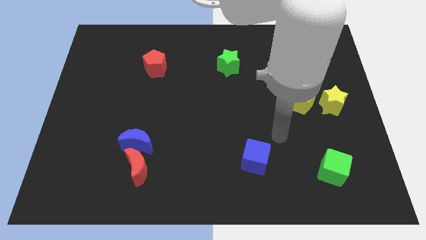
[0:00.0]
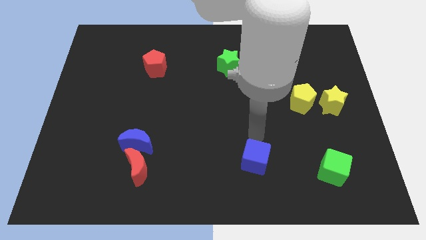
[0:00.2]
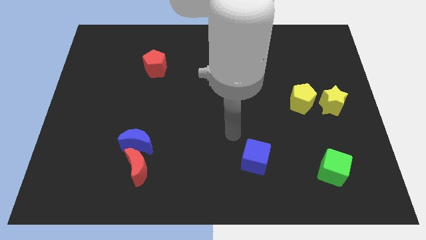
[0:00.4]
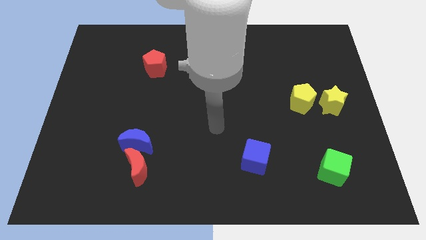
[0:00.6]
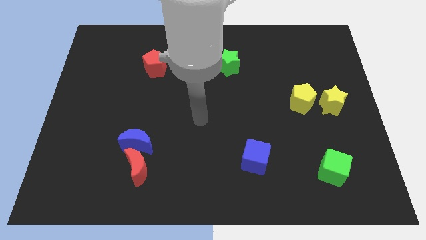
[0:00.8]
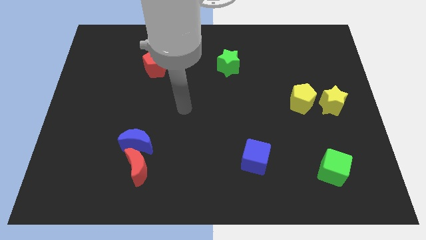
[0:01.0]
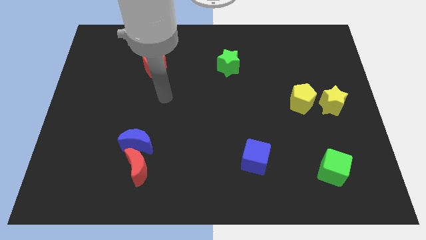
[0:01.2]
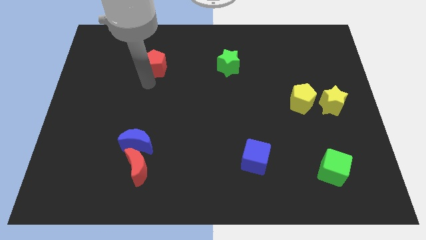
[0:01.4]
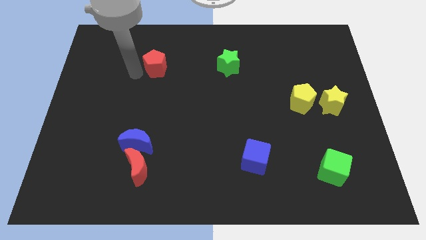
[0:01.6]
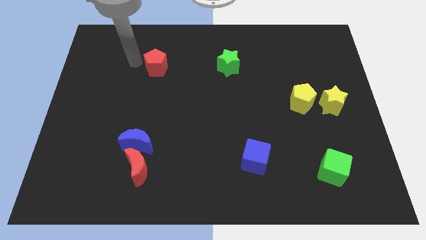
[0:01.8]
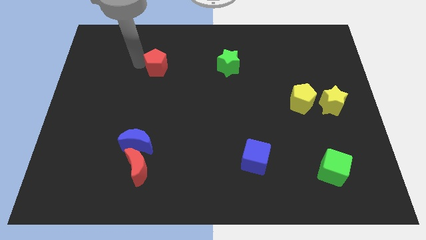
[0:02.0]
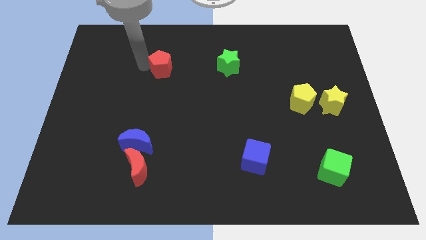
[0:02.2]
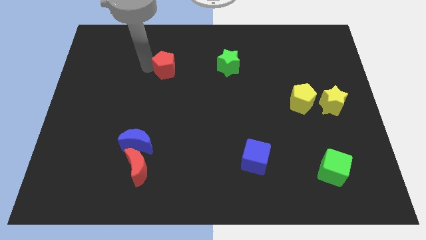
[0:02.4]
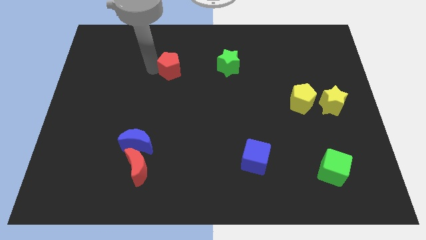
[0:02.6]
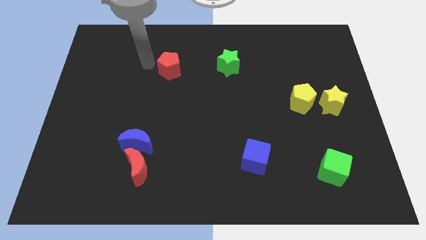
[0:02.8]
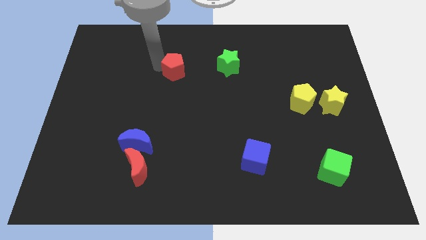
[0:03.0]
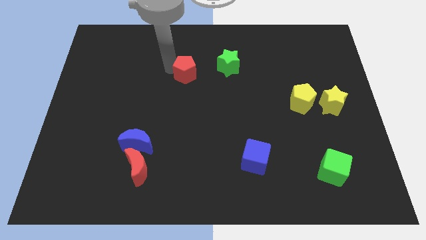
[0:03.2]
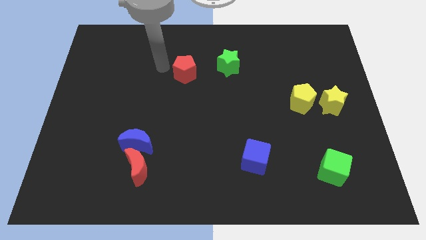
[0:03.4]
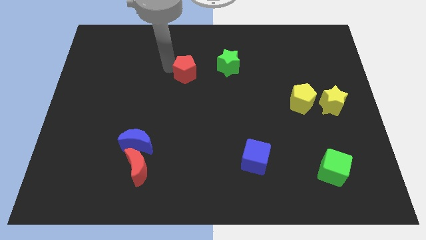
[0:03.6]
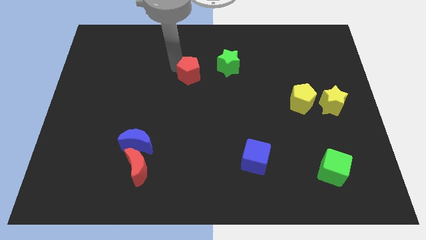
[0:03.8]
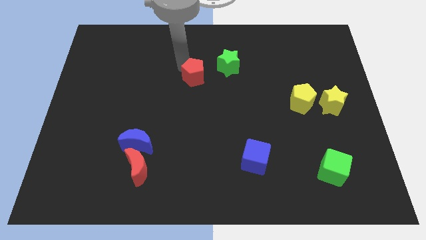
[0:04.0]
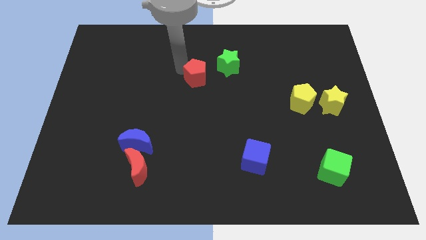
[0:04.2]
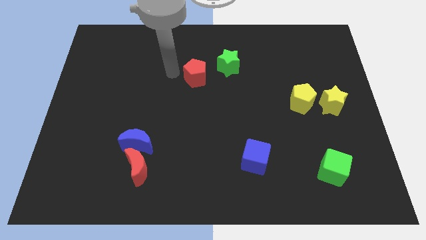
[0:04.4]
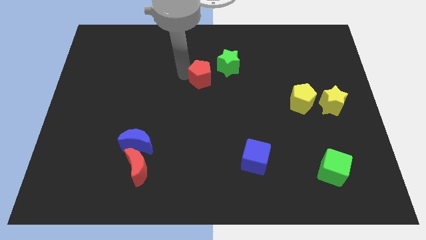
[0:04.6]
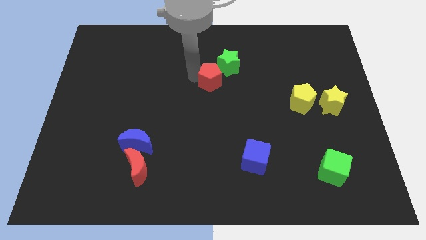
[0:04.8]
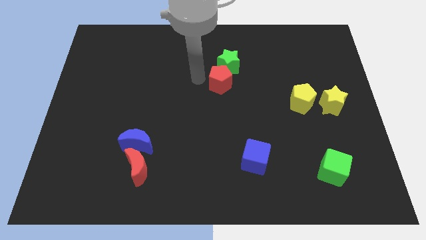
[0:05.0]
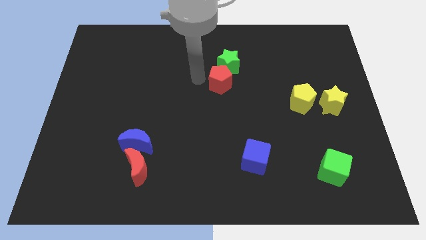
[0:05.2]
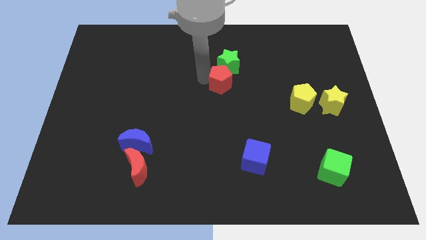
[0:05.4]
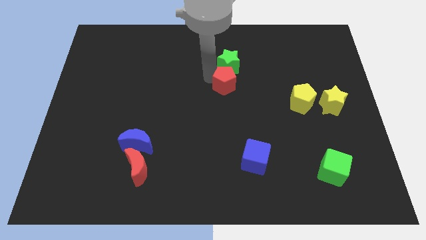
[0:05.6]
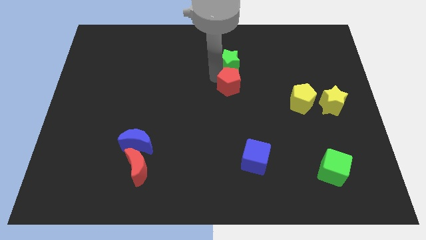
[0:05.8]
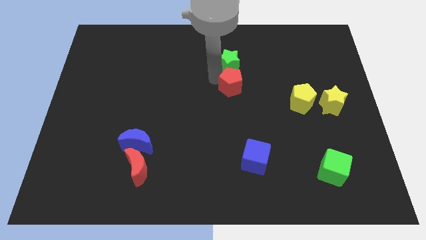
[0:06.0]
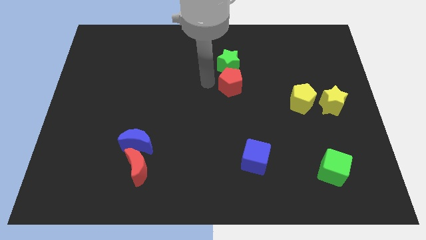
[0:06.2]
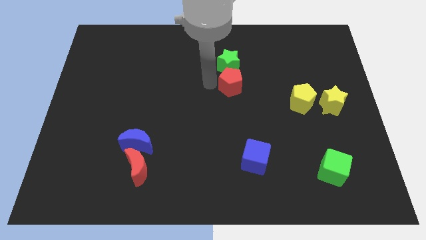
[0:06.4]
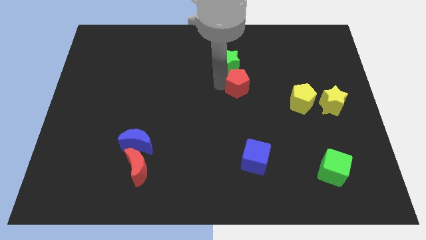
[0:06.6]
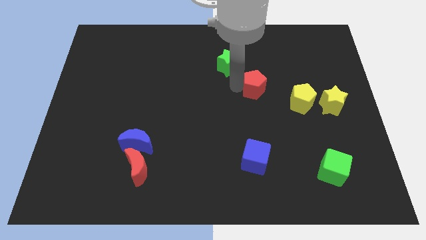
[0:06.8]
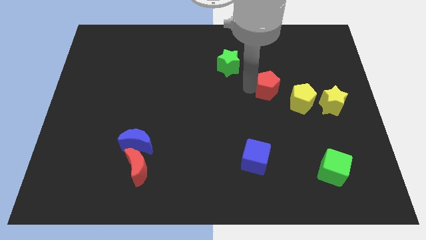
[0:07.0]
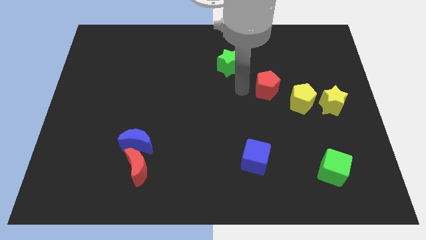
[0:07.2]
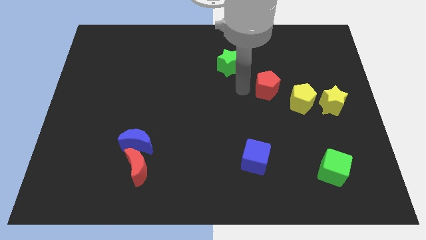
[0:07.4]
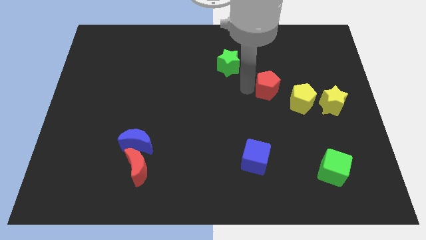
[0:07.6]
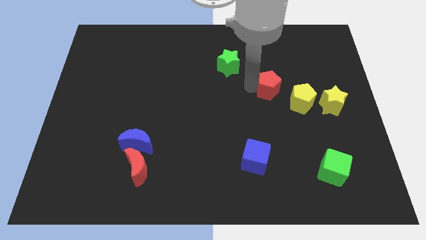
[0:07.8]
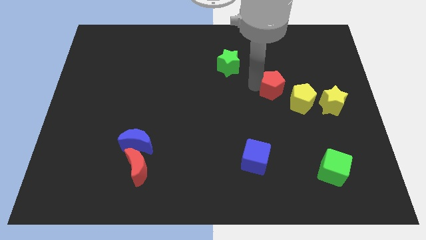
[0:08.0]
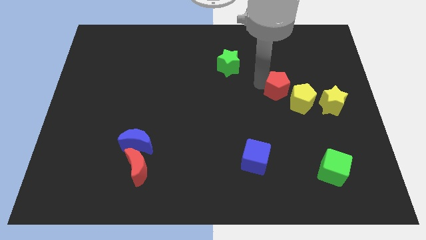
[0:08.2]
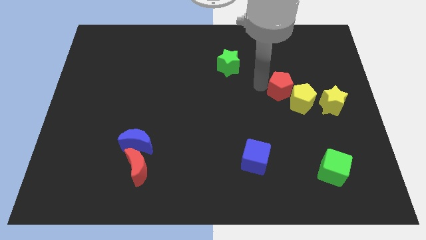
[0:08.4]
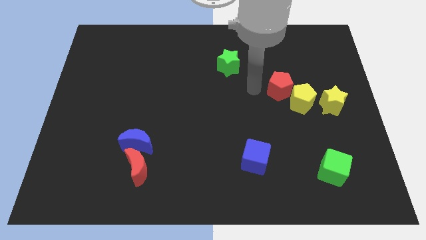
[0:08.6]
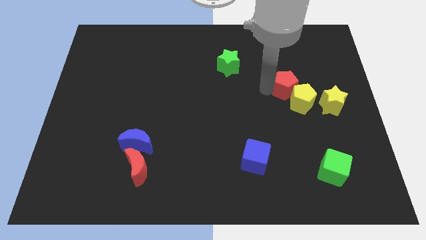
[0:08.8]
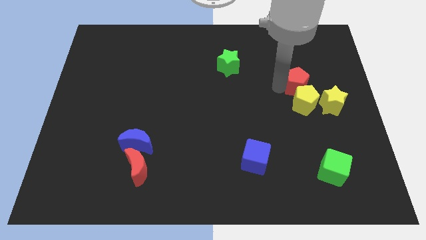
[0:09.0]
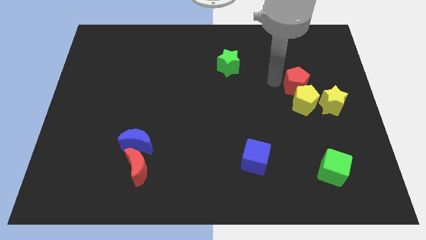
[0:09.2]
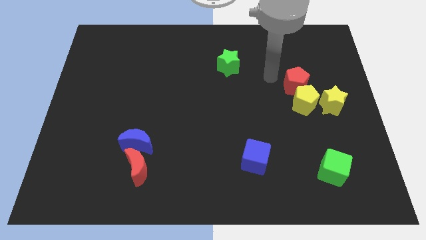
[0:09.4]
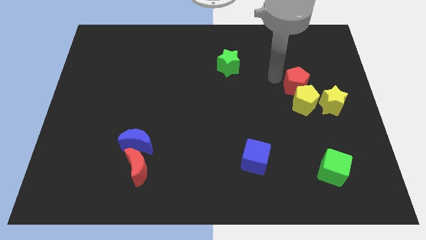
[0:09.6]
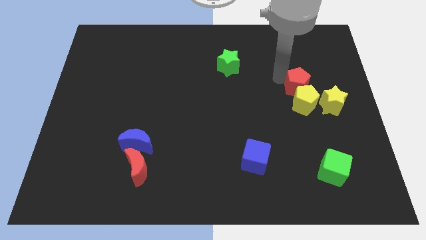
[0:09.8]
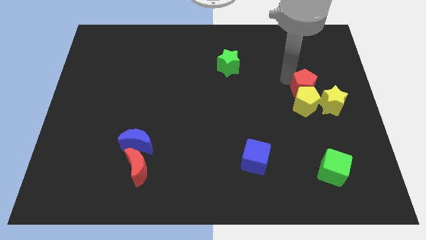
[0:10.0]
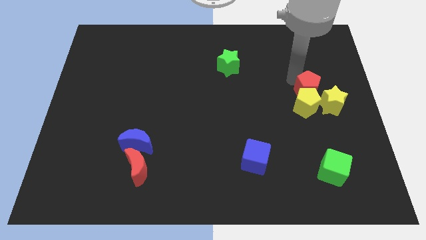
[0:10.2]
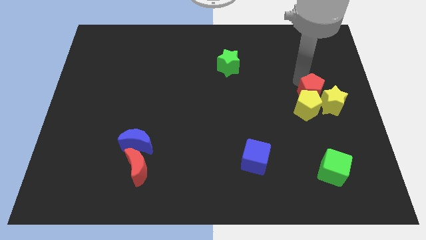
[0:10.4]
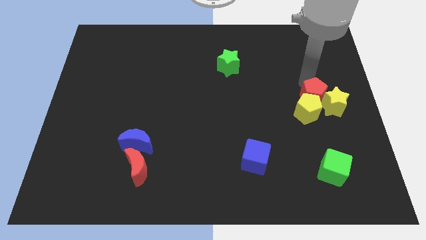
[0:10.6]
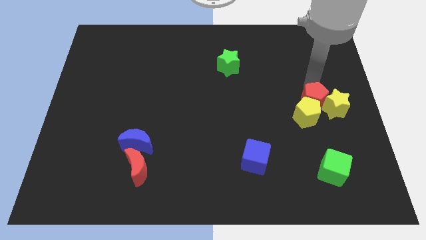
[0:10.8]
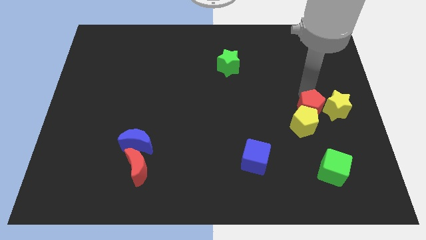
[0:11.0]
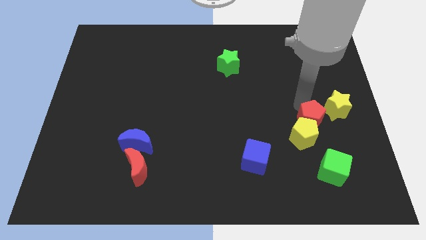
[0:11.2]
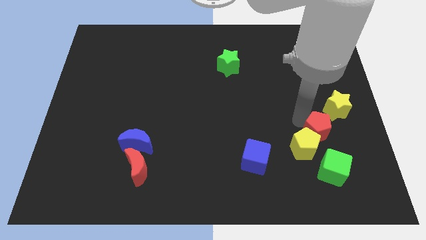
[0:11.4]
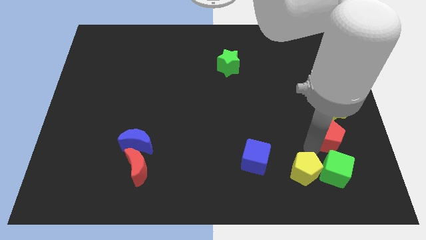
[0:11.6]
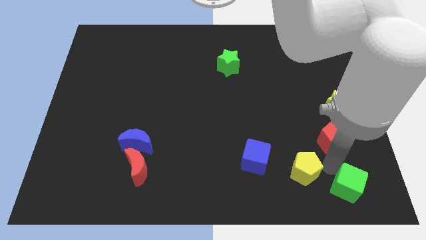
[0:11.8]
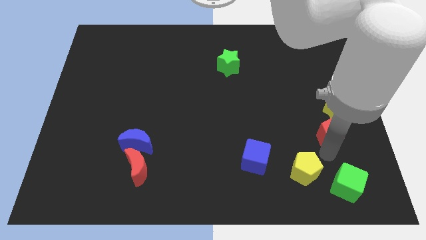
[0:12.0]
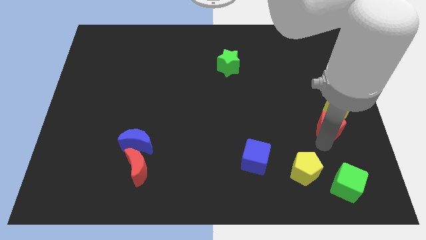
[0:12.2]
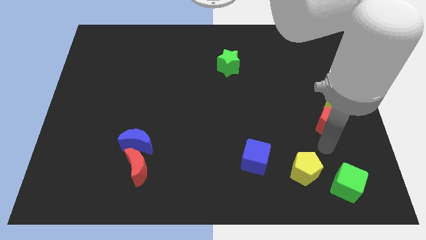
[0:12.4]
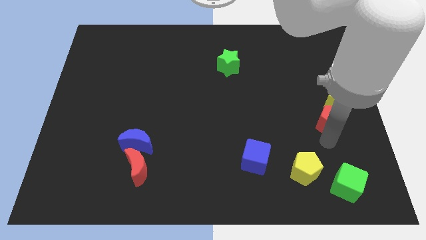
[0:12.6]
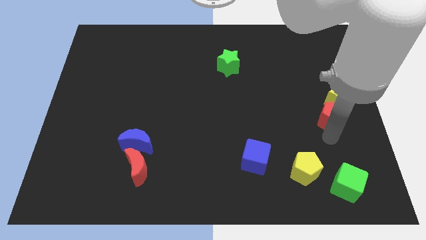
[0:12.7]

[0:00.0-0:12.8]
move the red pentagon to the center right
